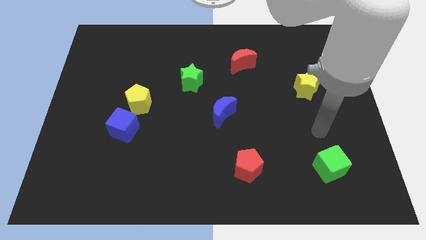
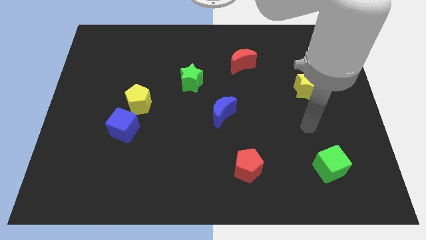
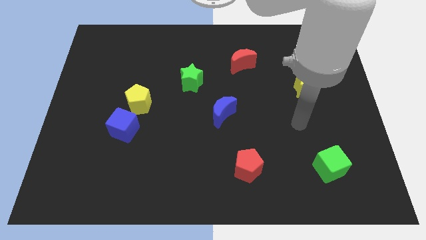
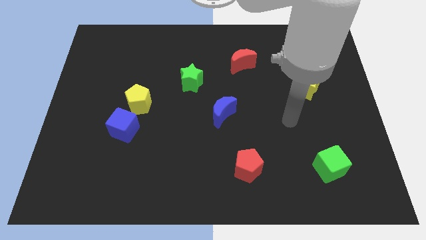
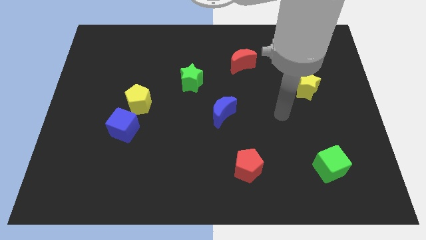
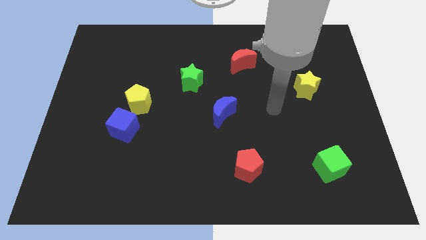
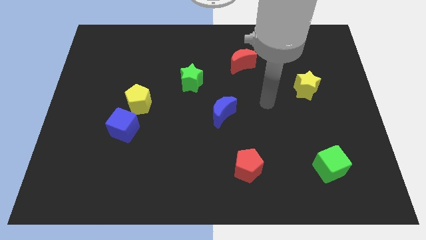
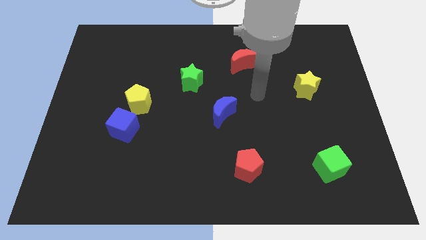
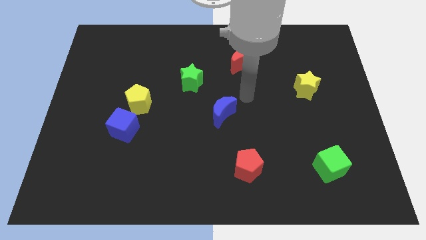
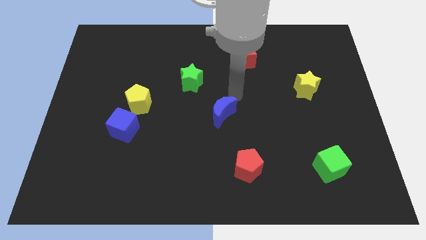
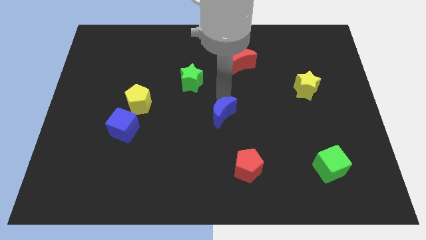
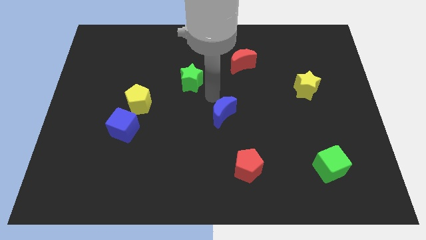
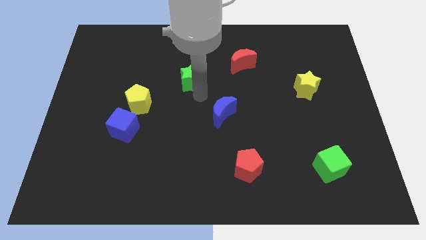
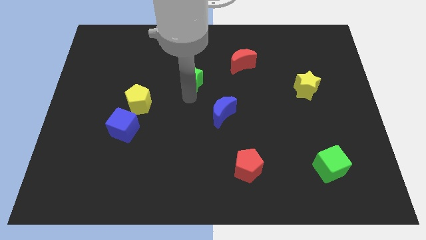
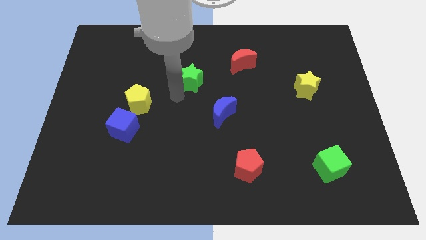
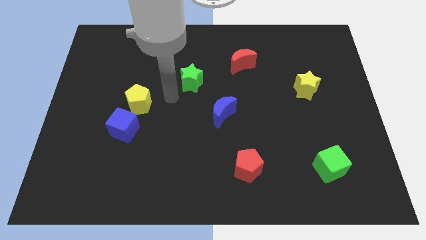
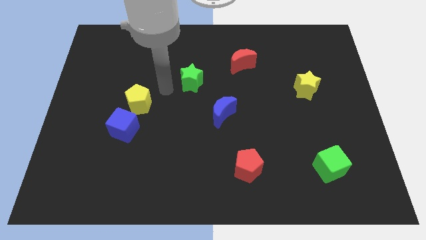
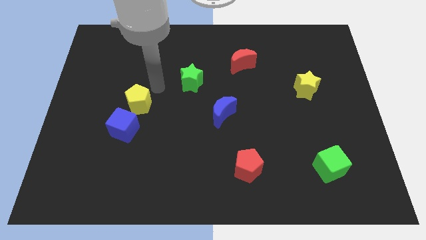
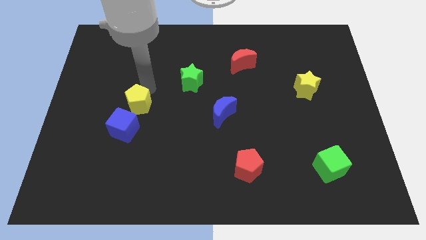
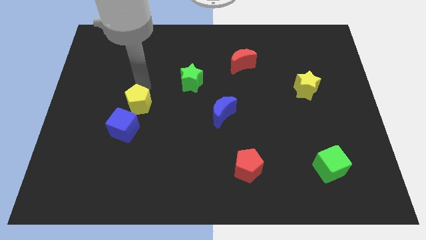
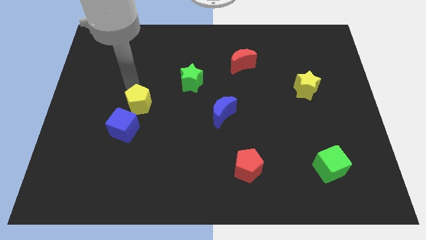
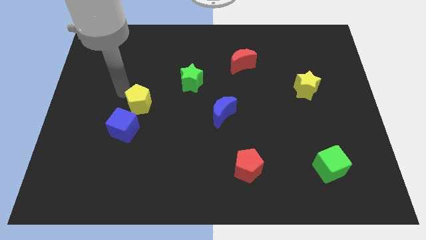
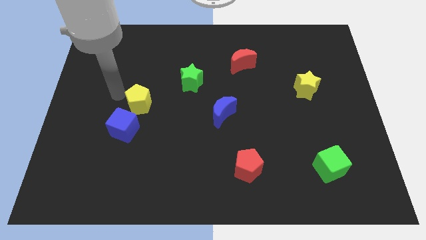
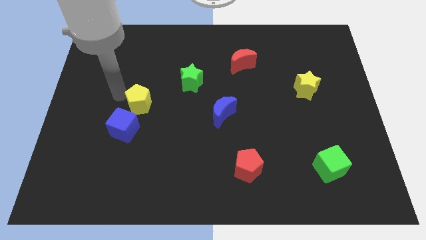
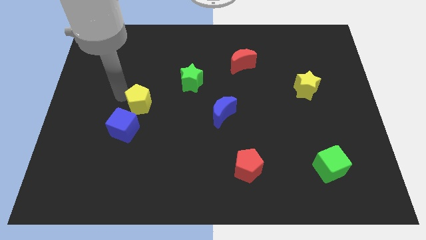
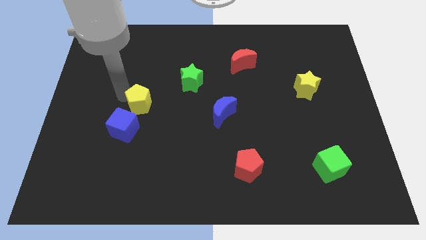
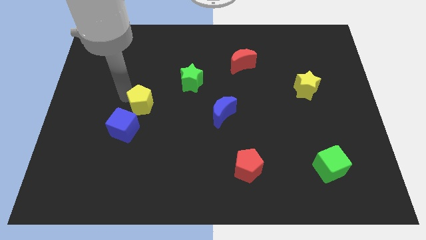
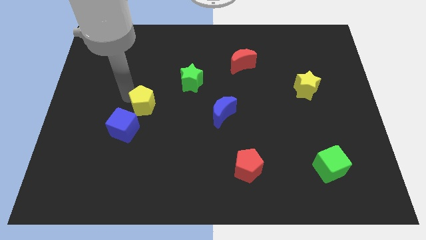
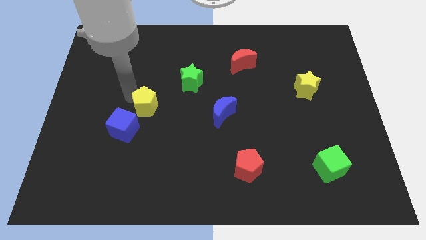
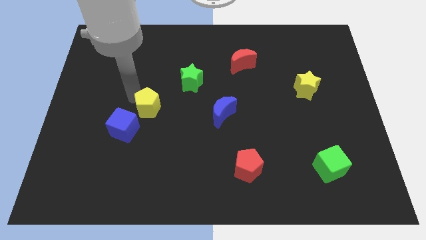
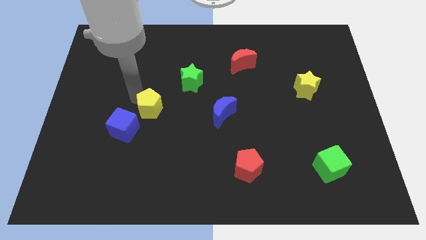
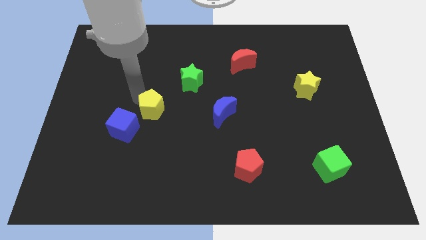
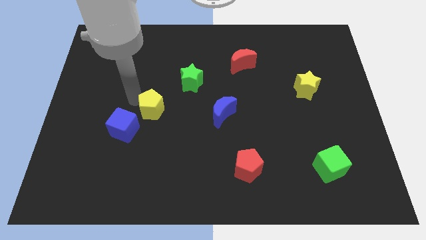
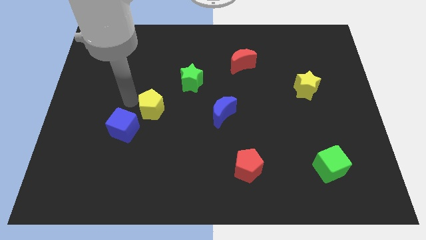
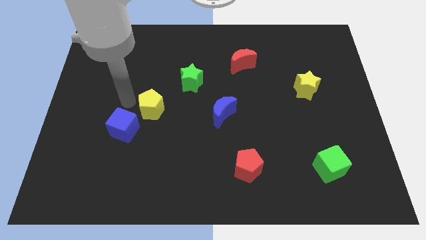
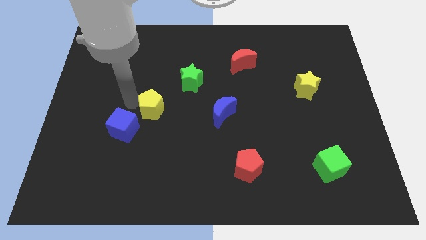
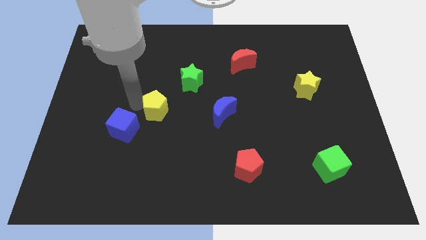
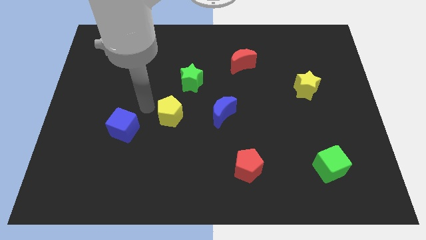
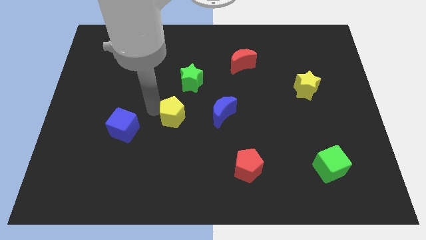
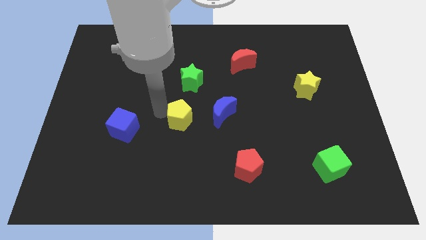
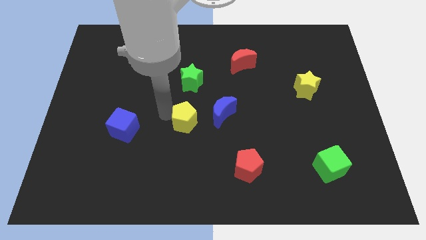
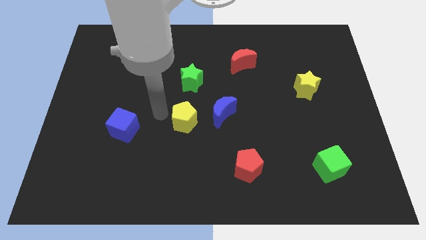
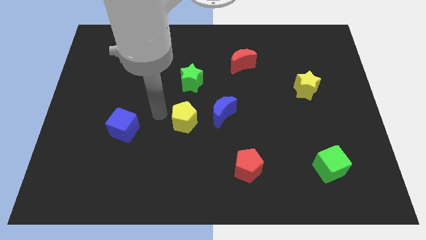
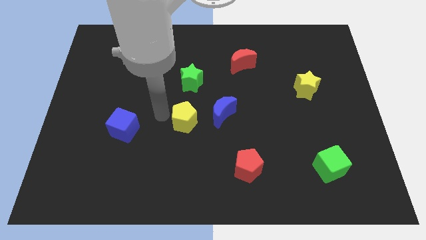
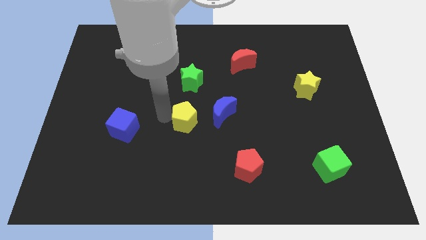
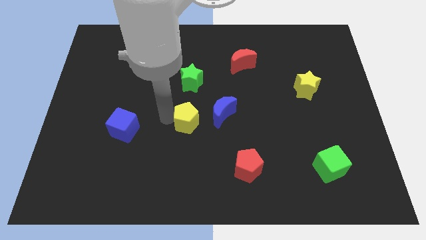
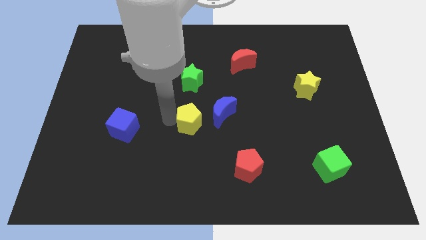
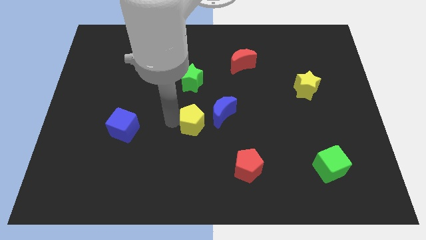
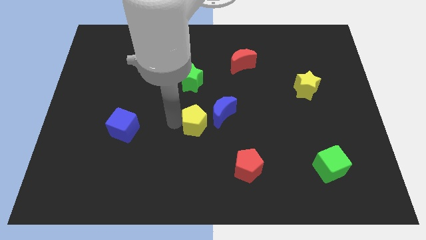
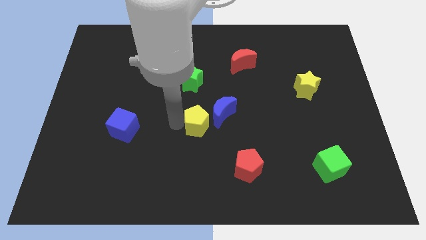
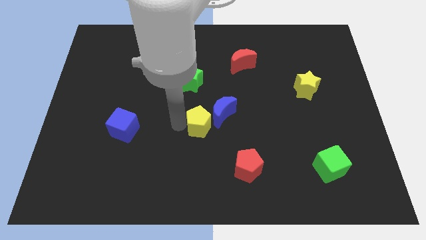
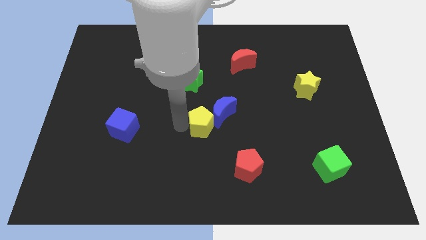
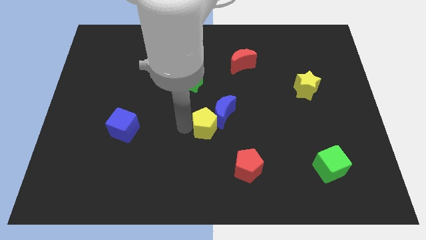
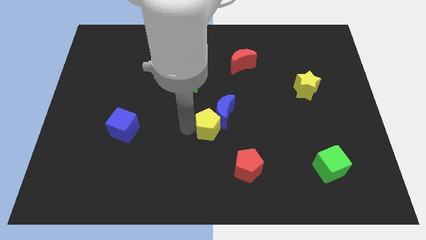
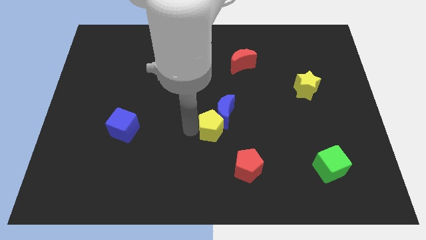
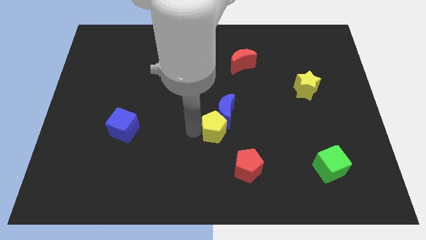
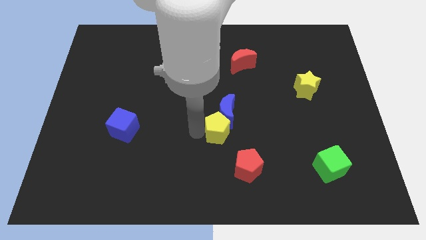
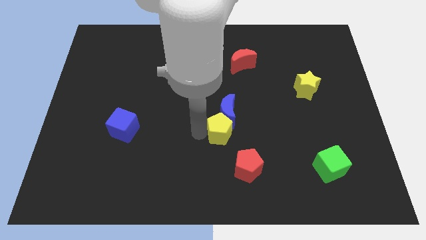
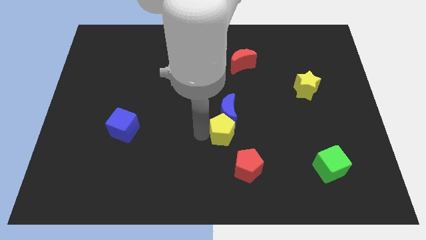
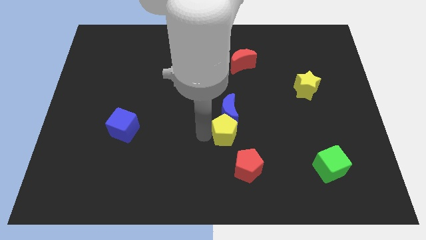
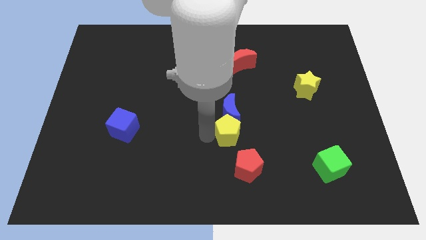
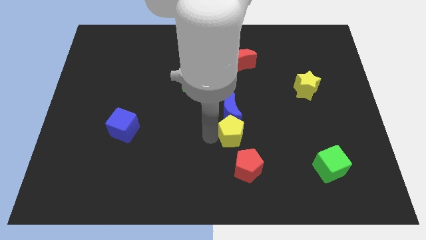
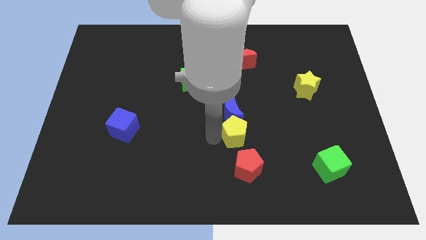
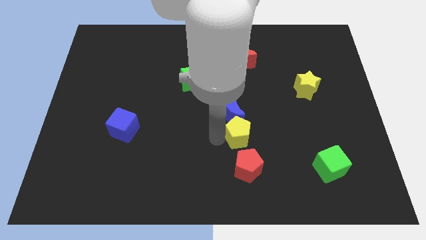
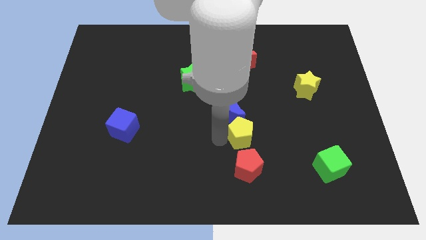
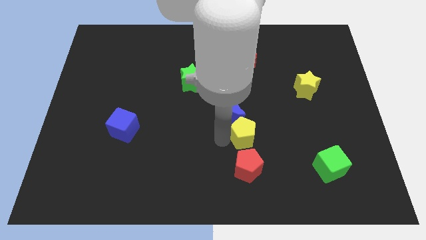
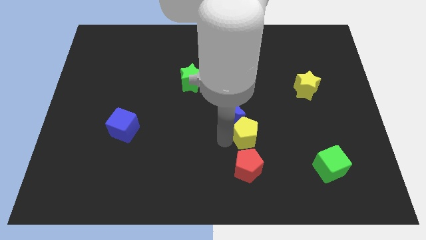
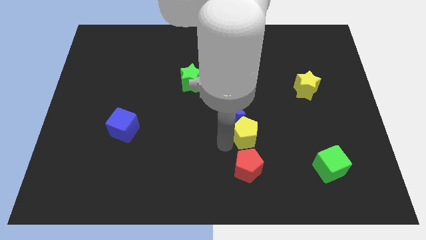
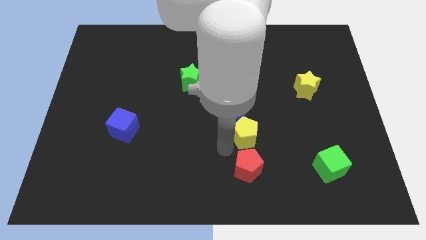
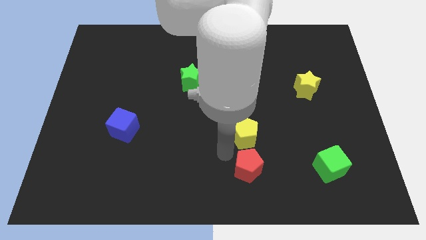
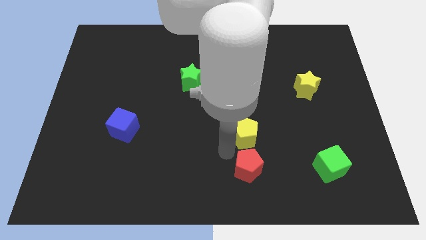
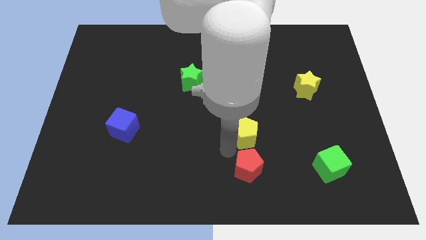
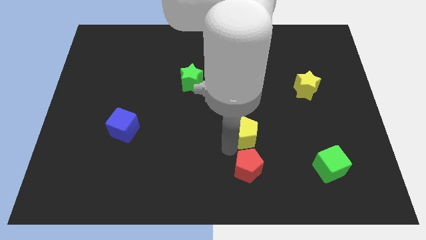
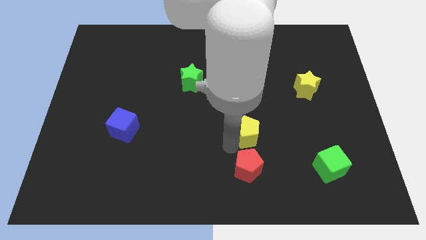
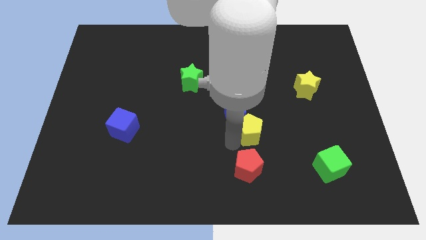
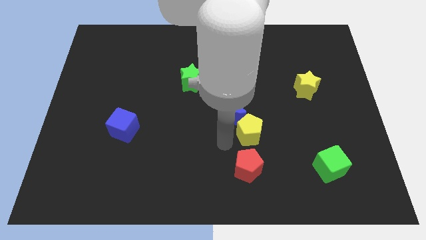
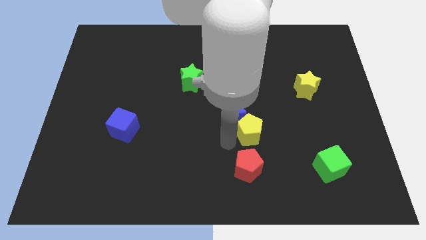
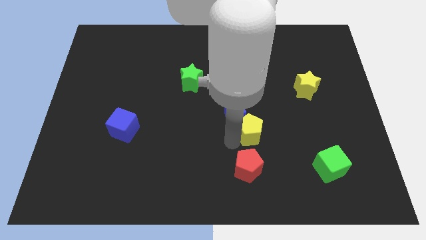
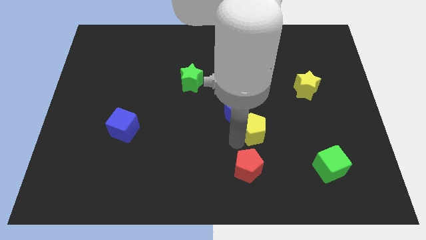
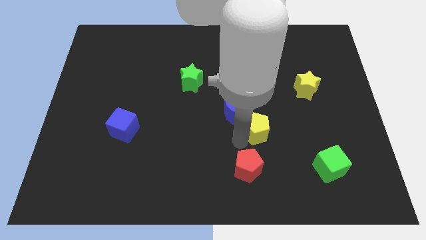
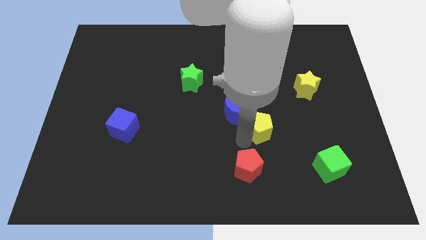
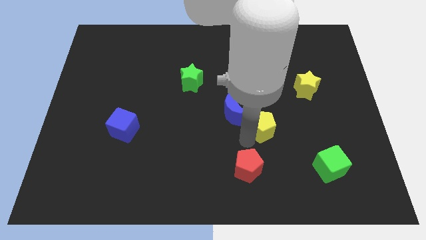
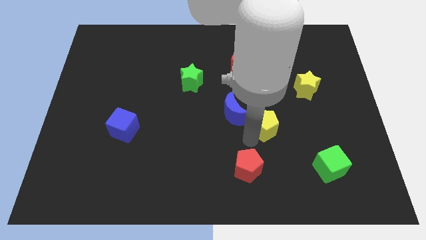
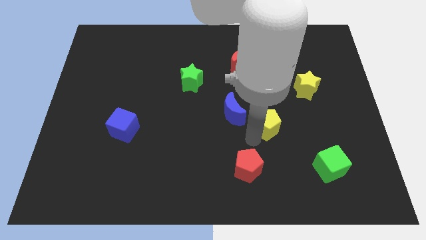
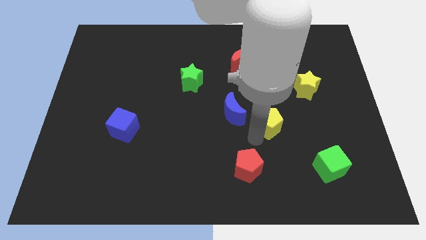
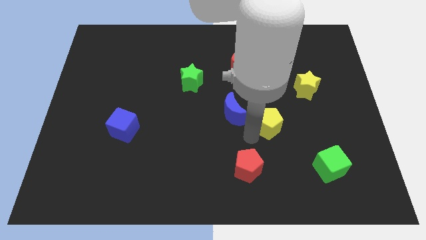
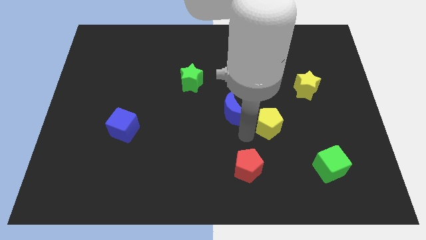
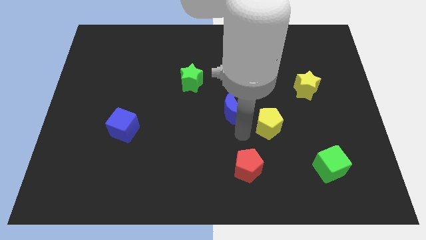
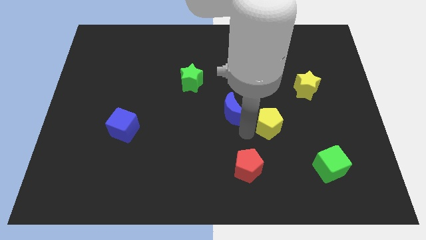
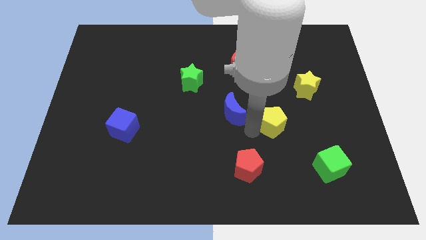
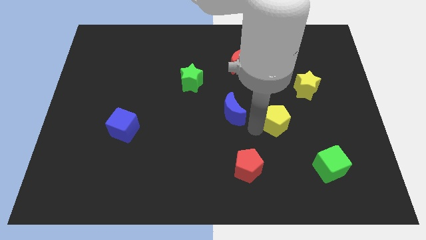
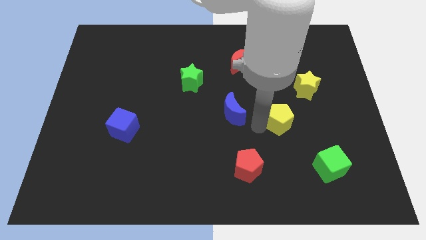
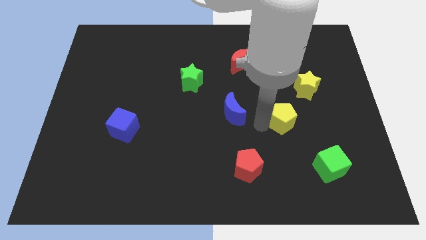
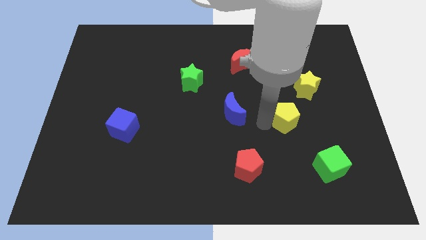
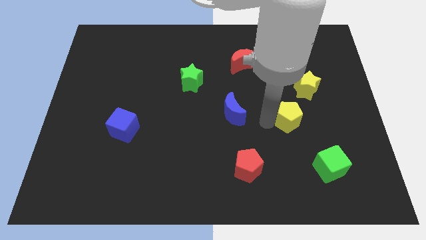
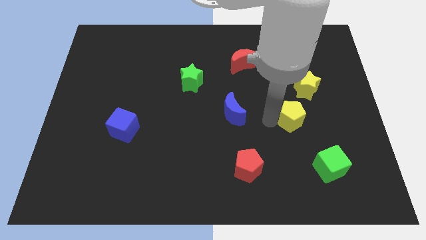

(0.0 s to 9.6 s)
move the yellow pentagon to the bottom side of the yellow star
